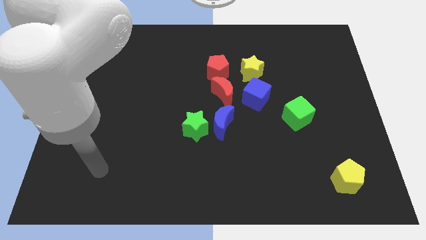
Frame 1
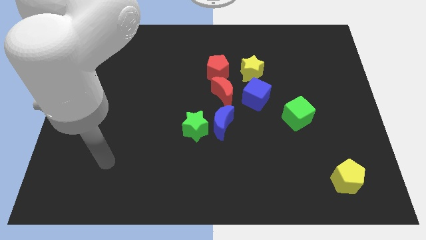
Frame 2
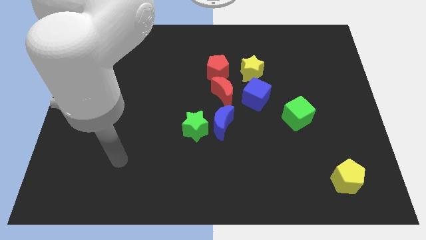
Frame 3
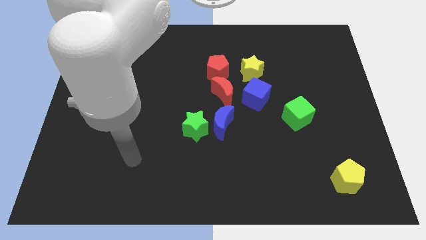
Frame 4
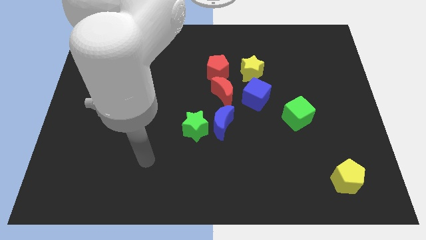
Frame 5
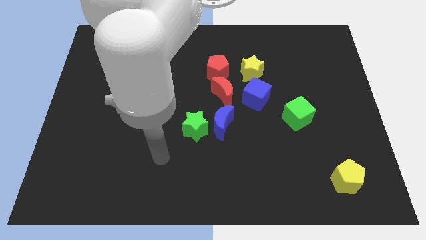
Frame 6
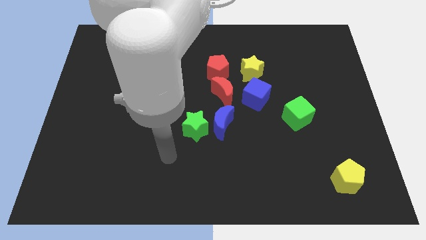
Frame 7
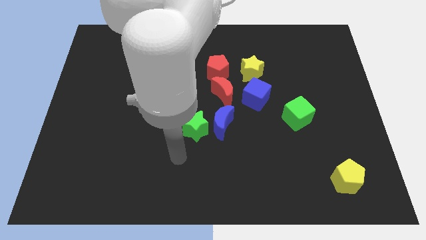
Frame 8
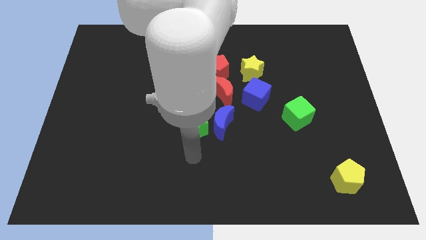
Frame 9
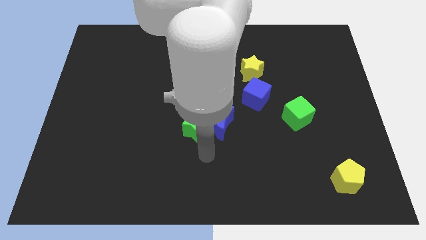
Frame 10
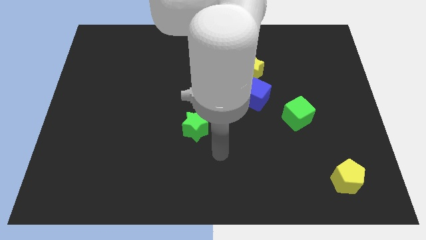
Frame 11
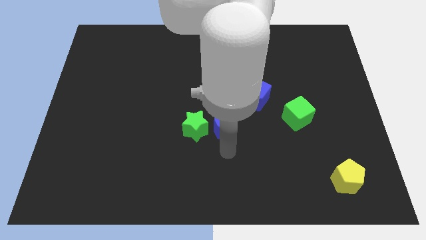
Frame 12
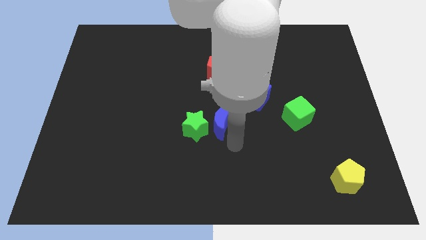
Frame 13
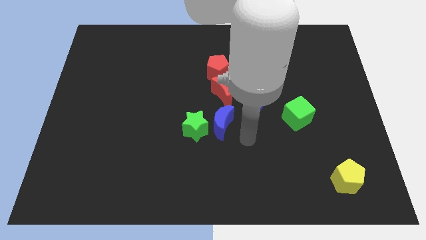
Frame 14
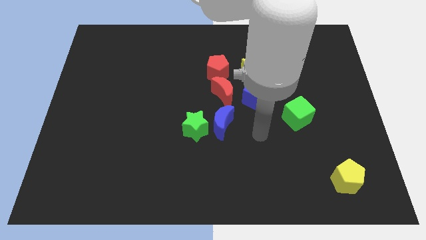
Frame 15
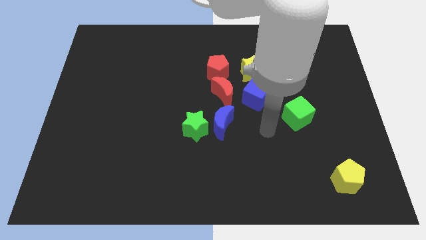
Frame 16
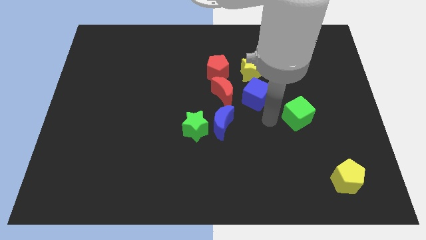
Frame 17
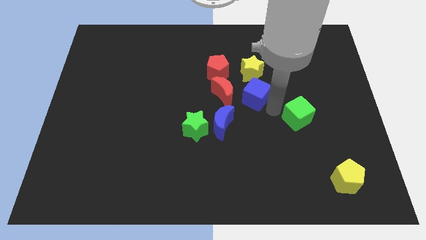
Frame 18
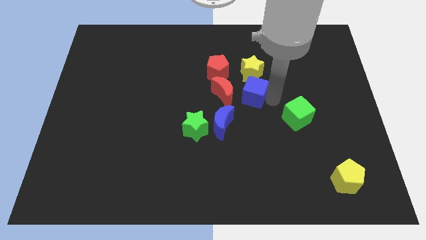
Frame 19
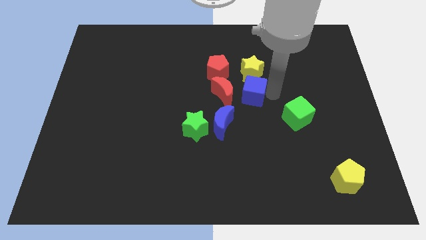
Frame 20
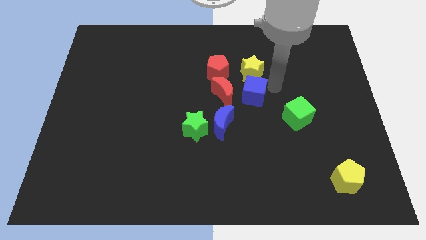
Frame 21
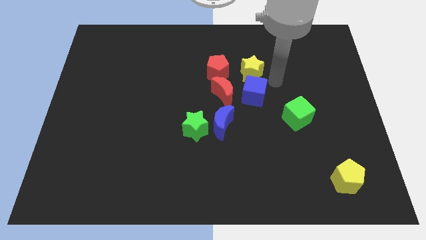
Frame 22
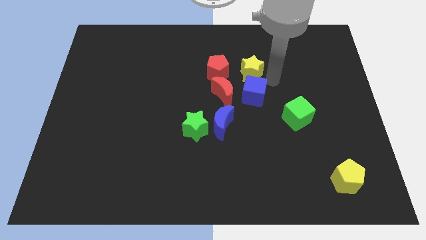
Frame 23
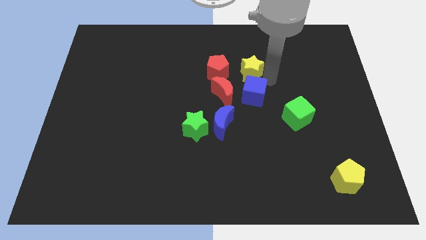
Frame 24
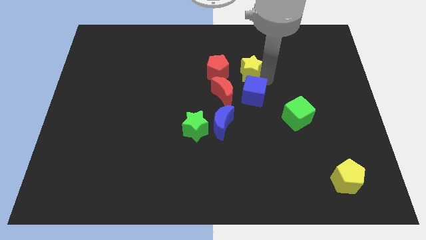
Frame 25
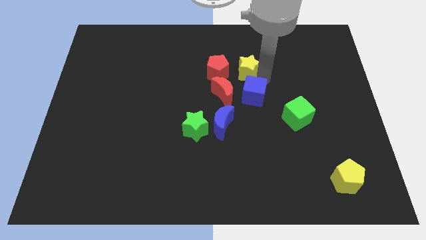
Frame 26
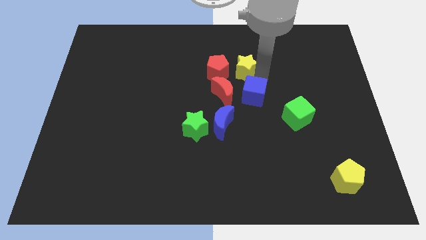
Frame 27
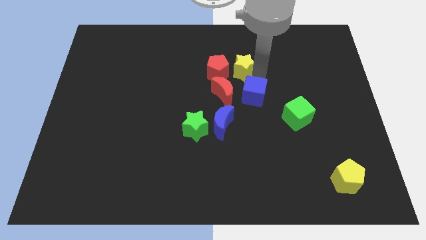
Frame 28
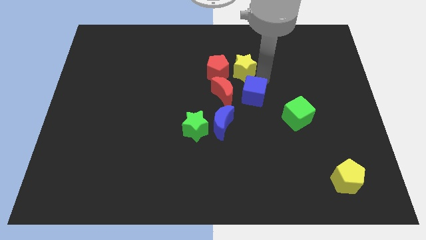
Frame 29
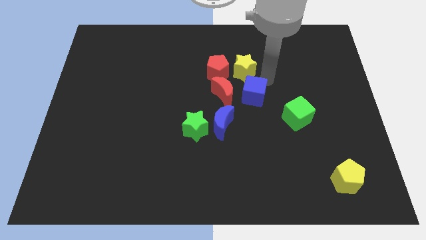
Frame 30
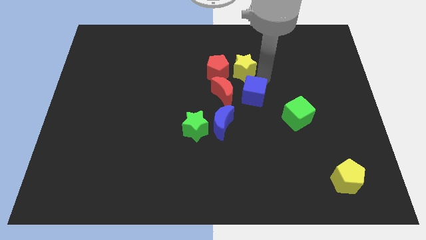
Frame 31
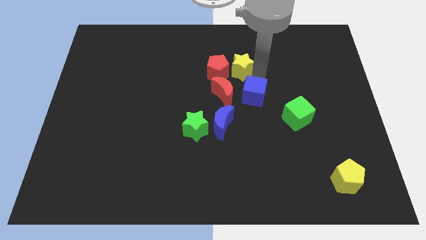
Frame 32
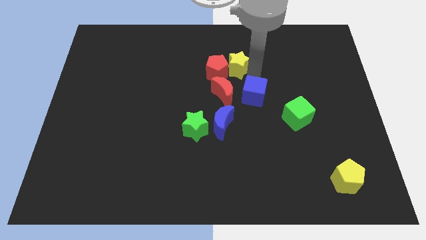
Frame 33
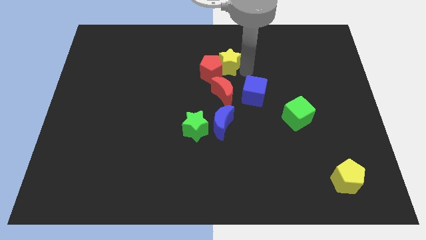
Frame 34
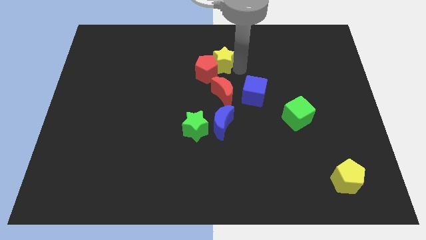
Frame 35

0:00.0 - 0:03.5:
push the yellow star to the left a bit

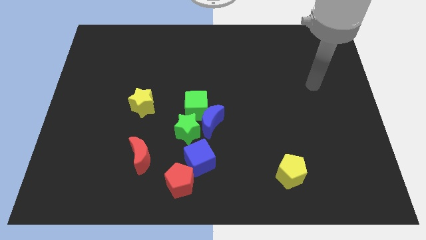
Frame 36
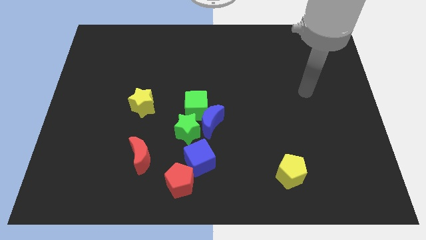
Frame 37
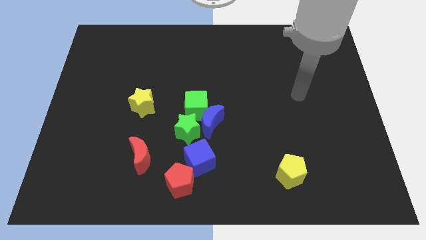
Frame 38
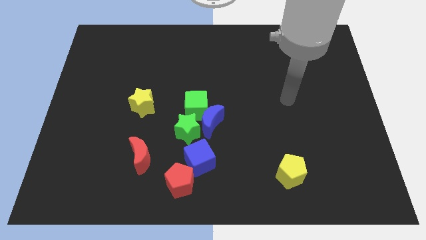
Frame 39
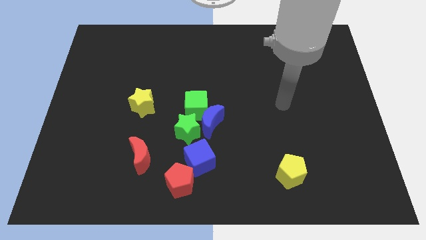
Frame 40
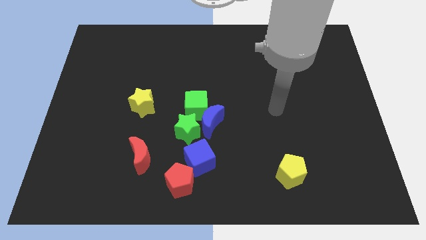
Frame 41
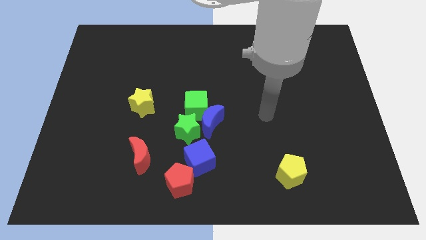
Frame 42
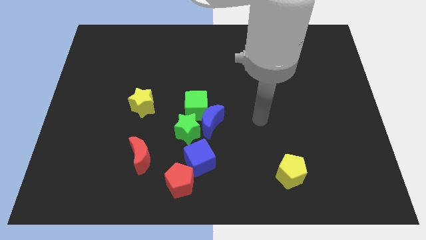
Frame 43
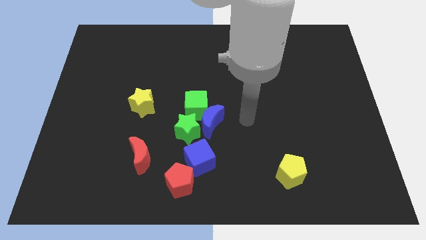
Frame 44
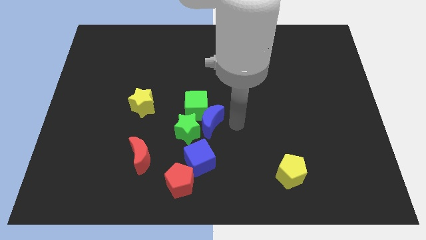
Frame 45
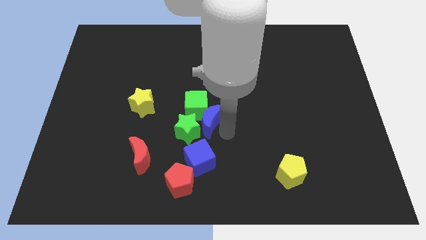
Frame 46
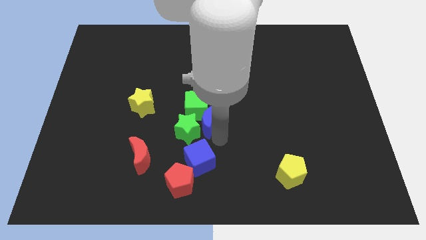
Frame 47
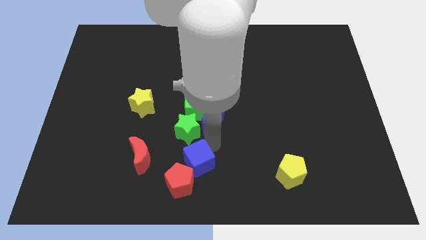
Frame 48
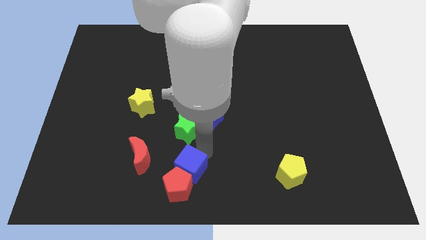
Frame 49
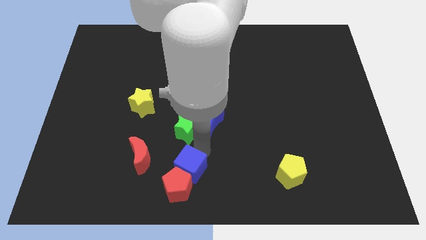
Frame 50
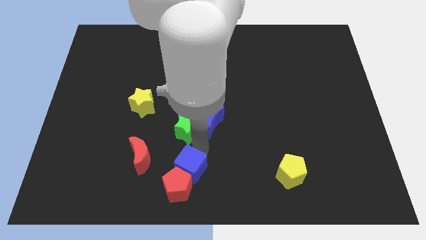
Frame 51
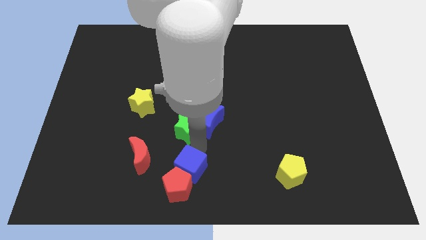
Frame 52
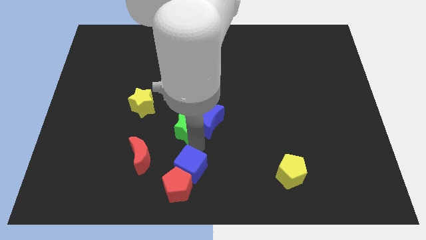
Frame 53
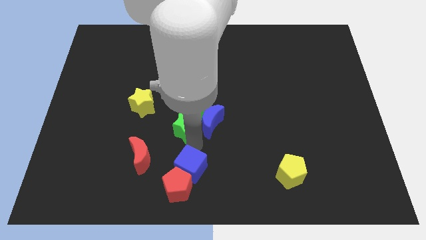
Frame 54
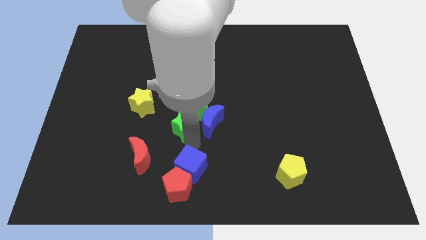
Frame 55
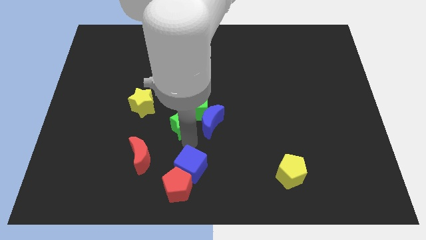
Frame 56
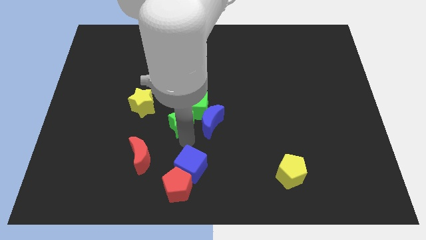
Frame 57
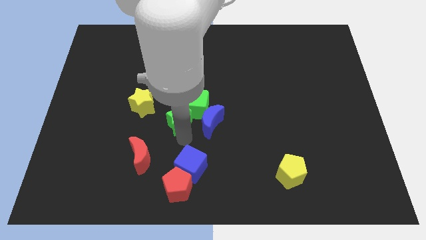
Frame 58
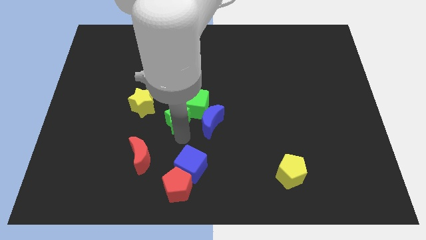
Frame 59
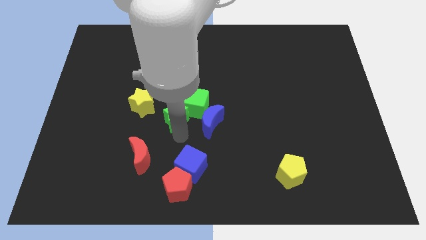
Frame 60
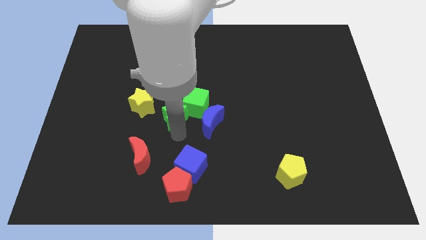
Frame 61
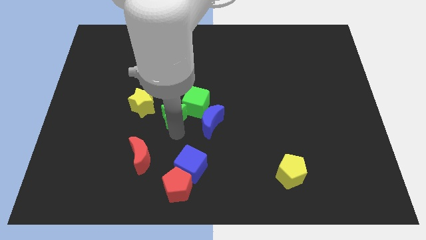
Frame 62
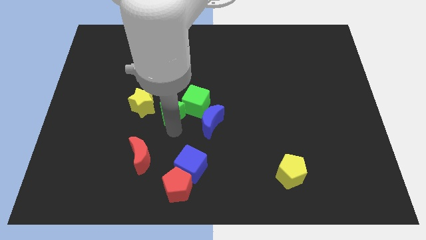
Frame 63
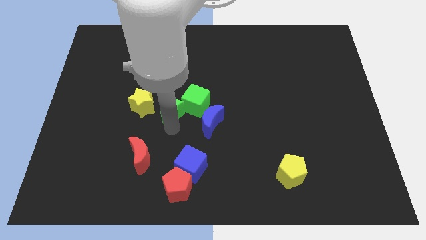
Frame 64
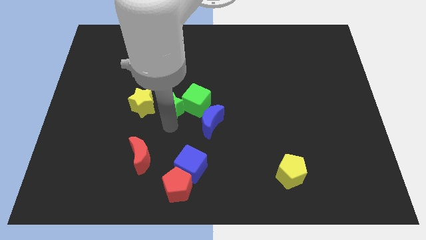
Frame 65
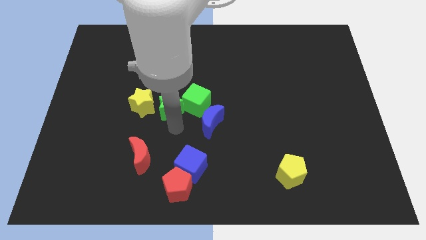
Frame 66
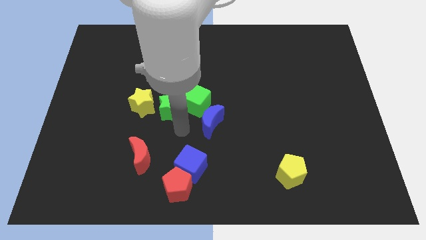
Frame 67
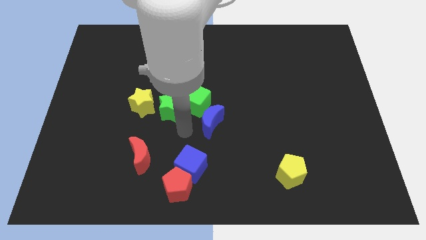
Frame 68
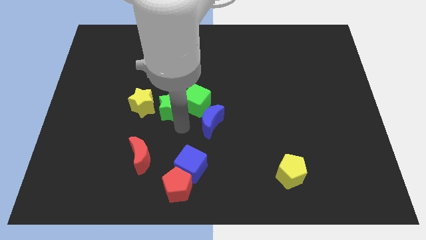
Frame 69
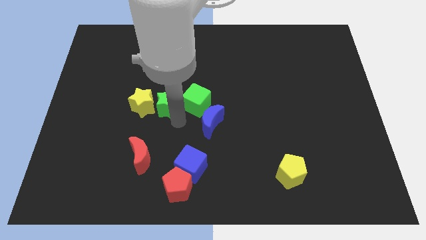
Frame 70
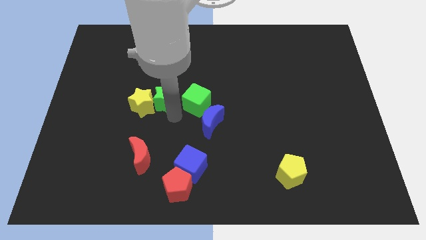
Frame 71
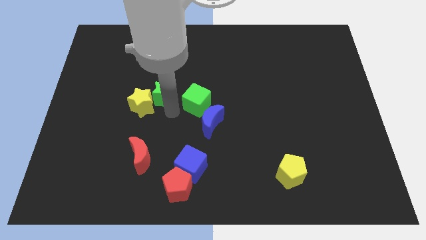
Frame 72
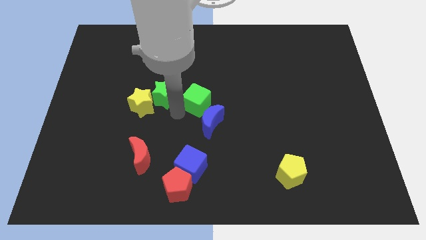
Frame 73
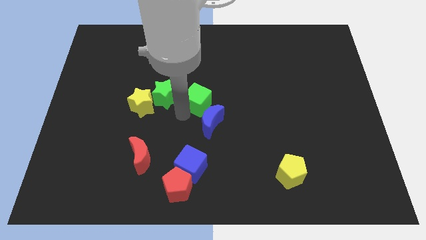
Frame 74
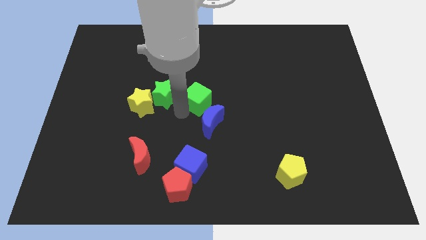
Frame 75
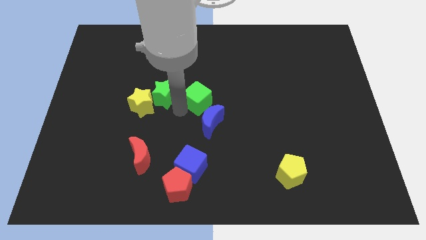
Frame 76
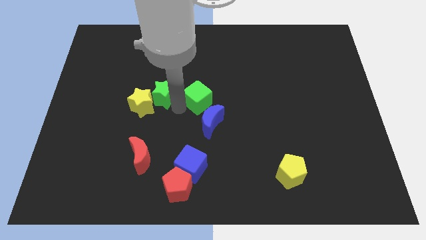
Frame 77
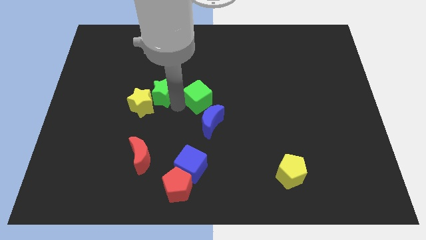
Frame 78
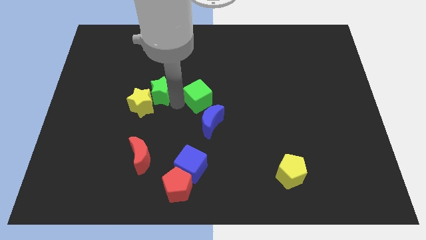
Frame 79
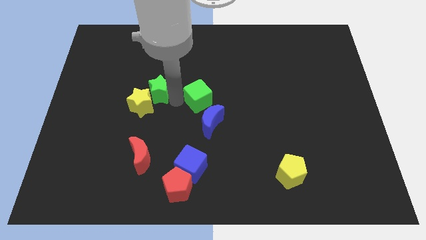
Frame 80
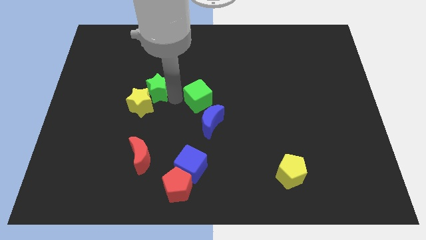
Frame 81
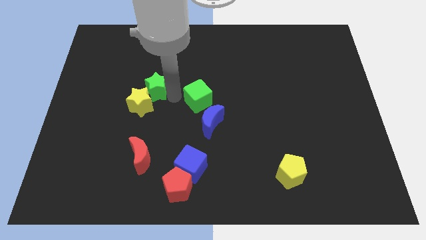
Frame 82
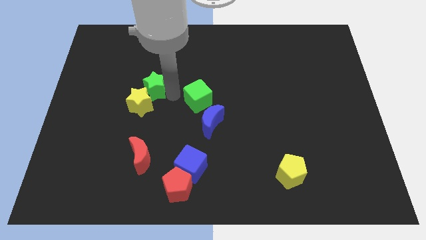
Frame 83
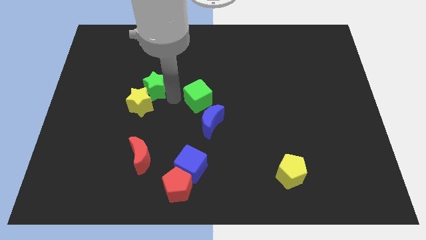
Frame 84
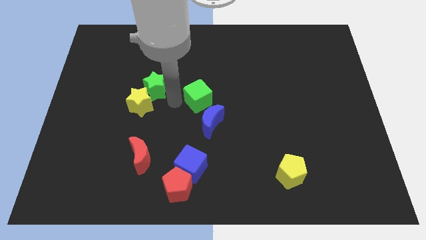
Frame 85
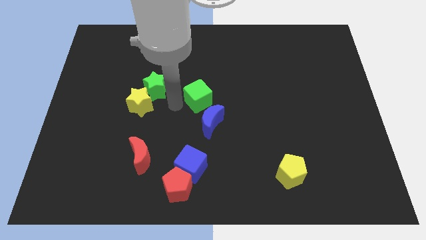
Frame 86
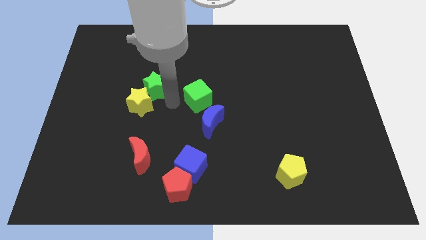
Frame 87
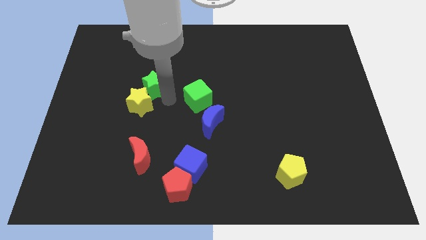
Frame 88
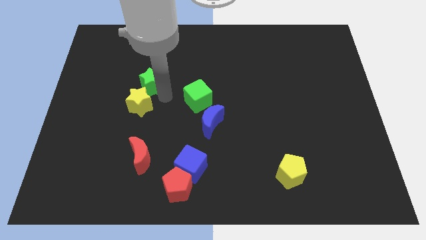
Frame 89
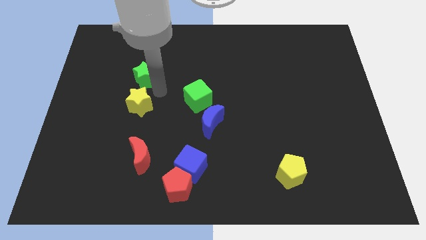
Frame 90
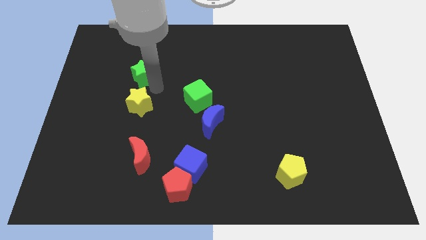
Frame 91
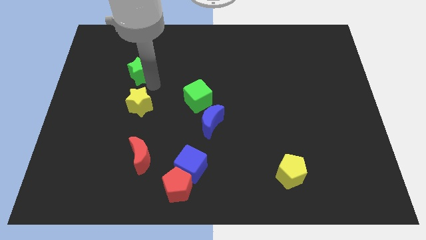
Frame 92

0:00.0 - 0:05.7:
slide the green star diagonally upwards and left
